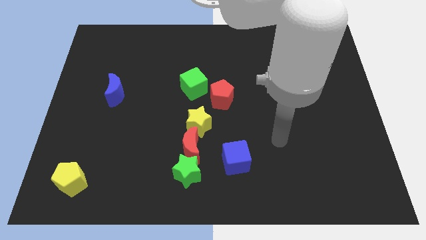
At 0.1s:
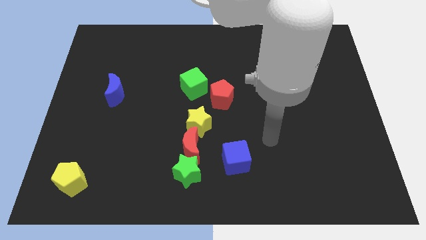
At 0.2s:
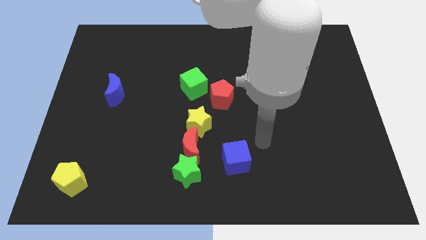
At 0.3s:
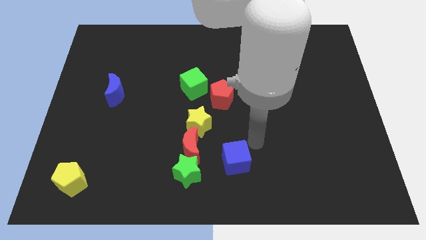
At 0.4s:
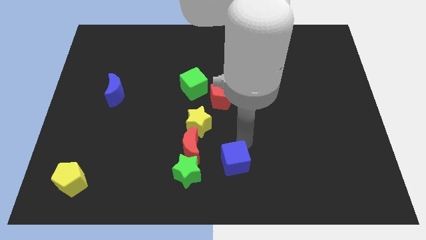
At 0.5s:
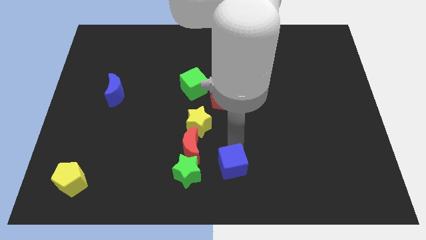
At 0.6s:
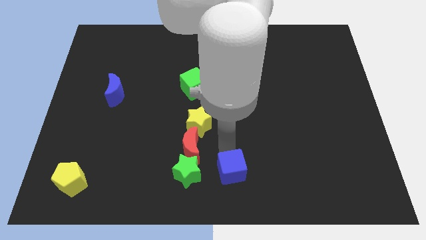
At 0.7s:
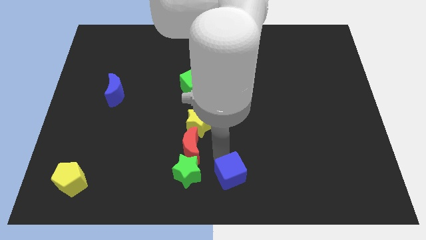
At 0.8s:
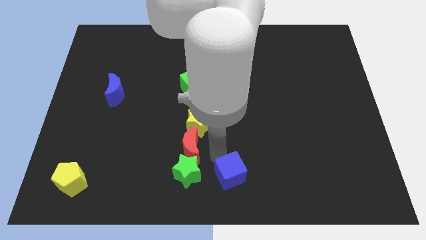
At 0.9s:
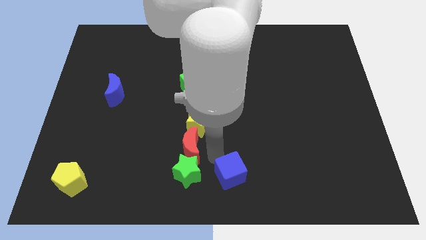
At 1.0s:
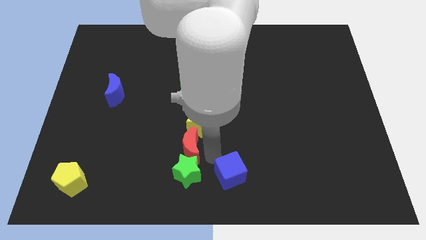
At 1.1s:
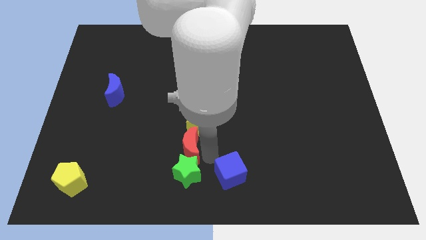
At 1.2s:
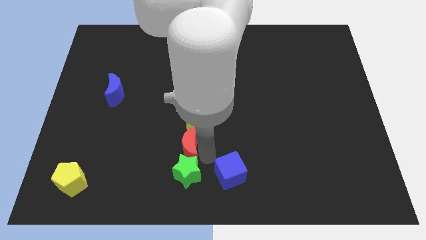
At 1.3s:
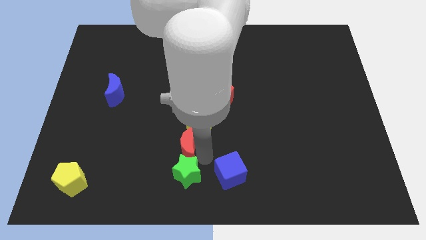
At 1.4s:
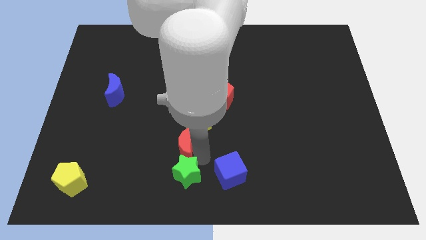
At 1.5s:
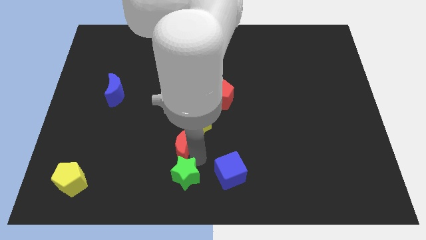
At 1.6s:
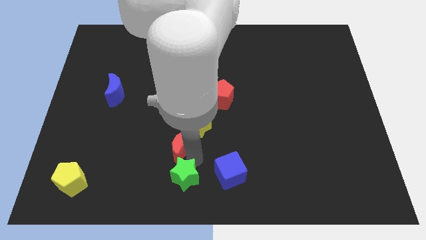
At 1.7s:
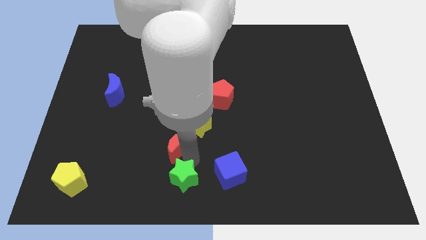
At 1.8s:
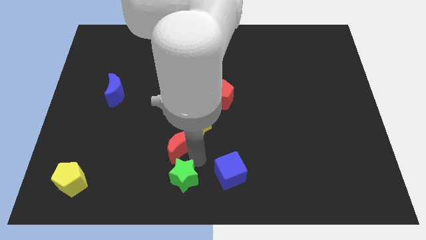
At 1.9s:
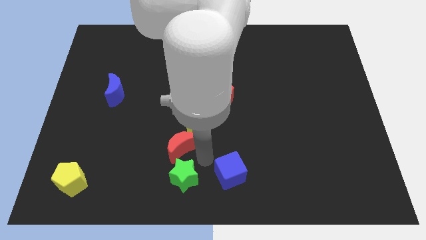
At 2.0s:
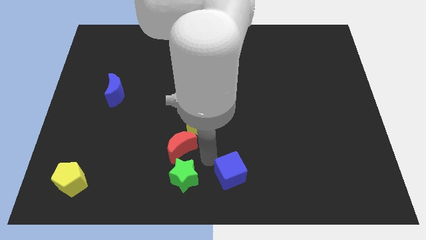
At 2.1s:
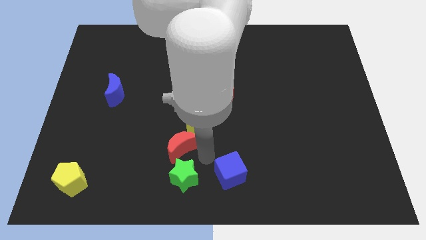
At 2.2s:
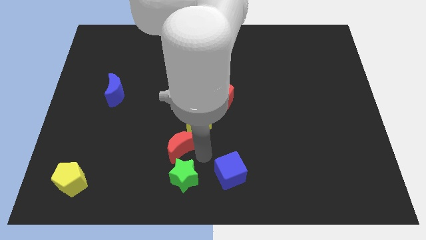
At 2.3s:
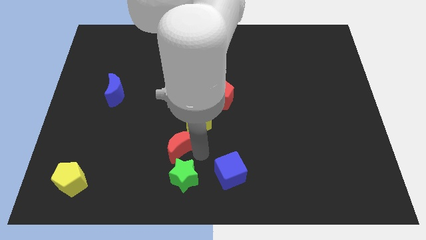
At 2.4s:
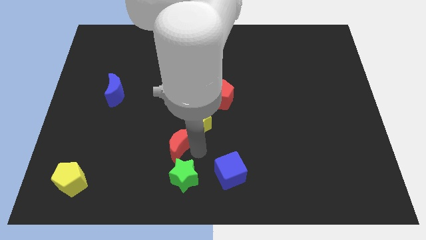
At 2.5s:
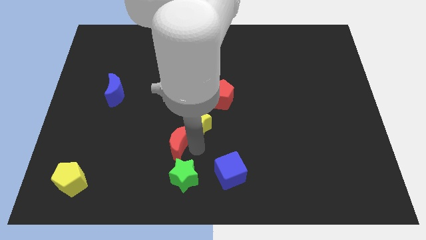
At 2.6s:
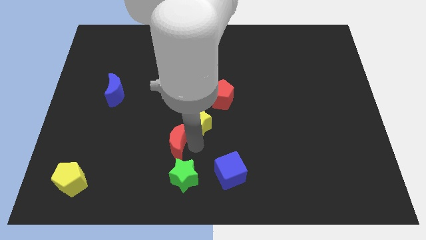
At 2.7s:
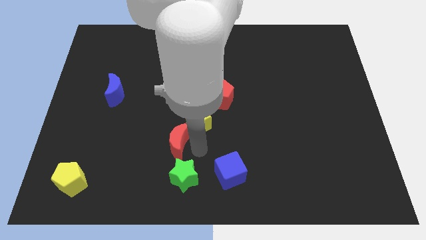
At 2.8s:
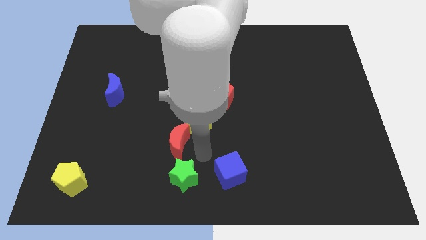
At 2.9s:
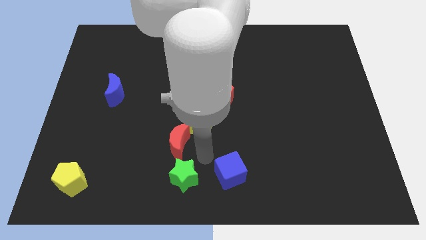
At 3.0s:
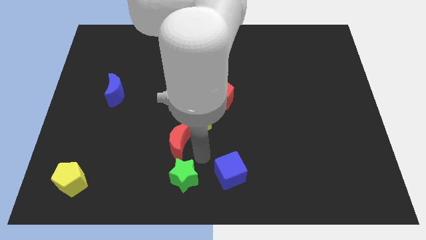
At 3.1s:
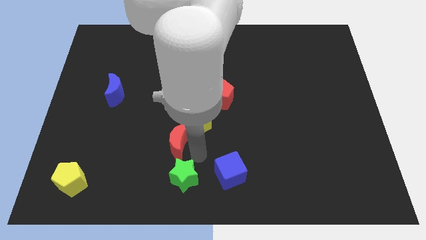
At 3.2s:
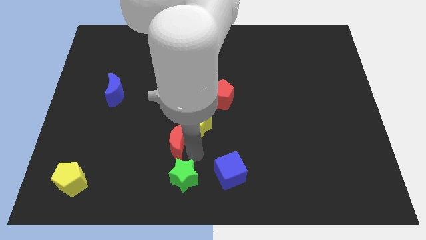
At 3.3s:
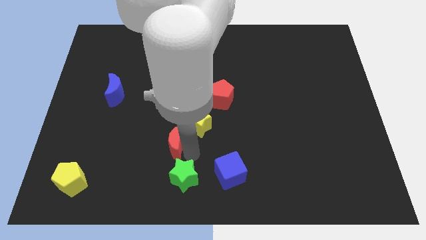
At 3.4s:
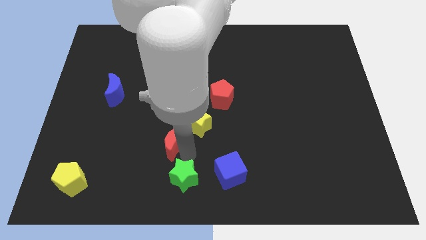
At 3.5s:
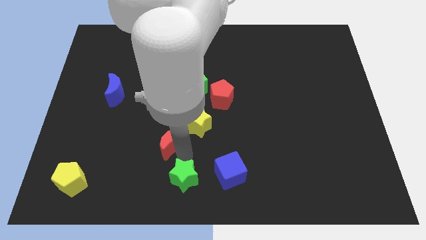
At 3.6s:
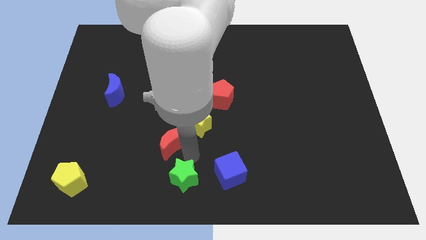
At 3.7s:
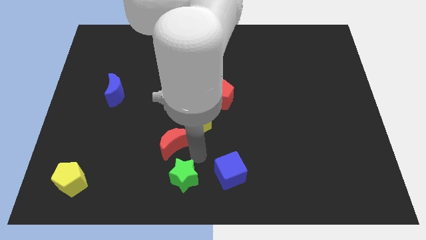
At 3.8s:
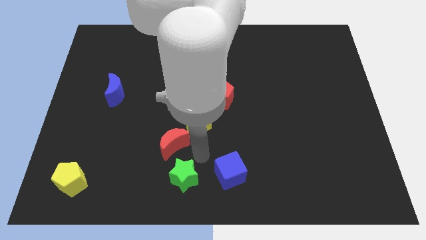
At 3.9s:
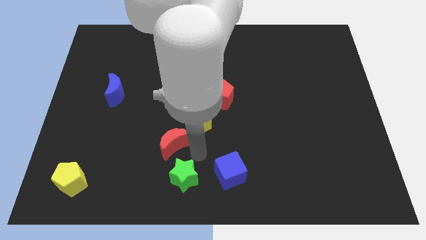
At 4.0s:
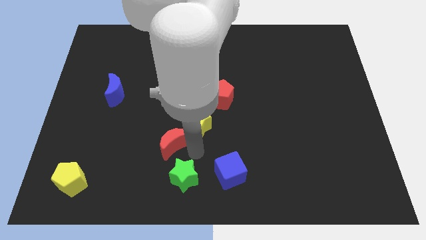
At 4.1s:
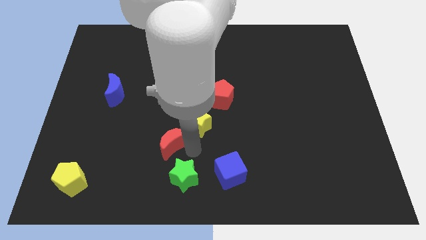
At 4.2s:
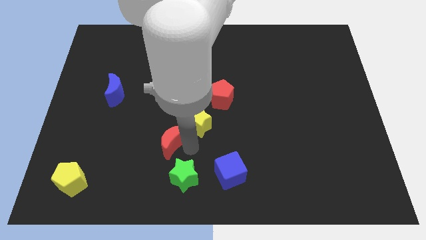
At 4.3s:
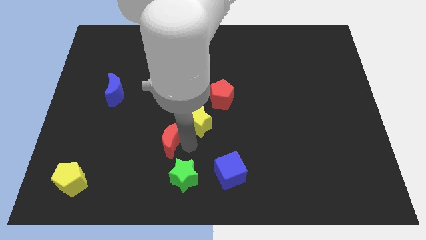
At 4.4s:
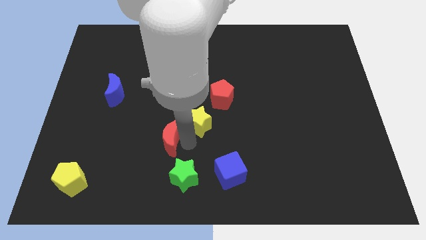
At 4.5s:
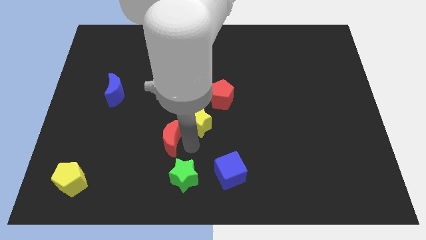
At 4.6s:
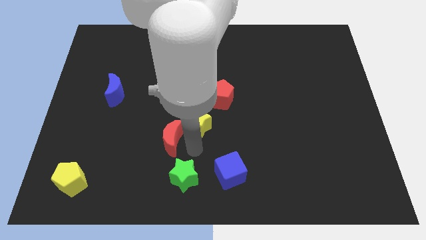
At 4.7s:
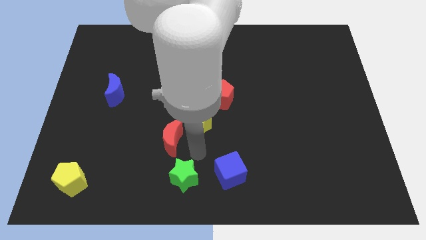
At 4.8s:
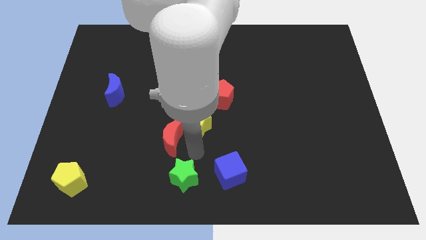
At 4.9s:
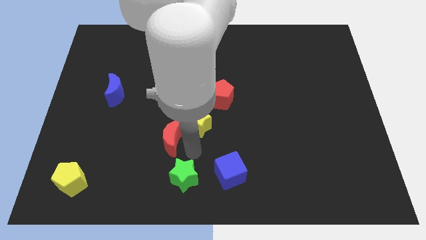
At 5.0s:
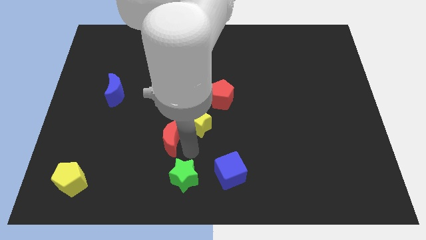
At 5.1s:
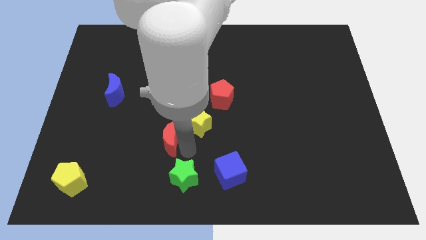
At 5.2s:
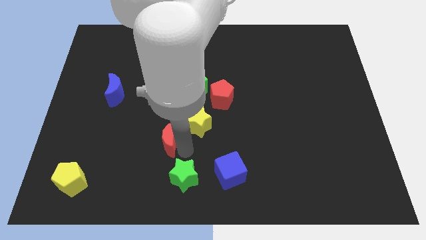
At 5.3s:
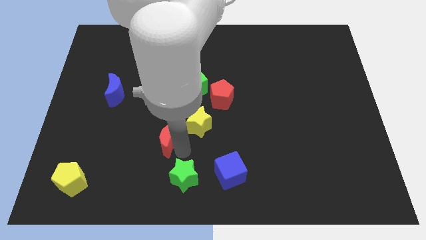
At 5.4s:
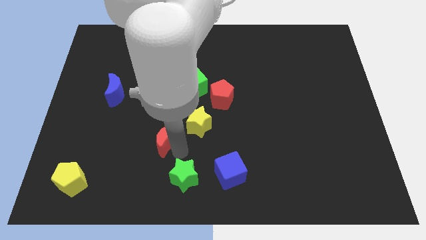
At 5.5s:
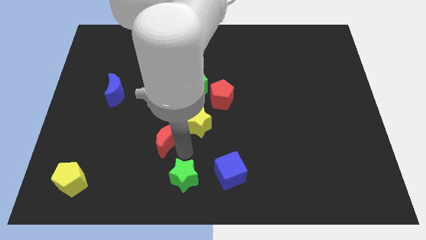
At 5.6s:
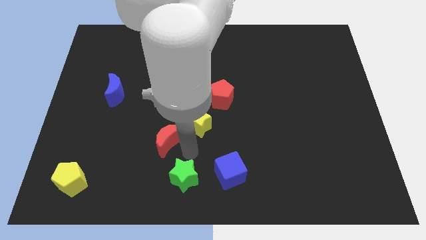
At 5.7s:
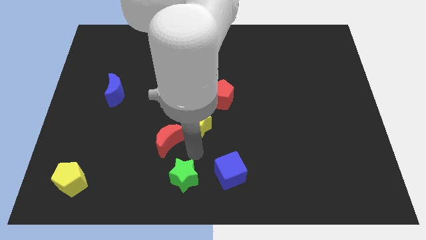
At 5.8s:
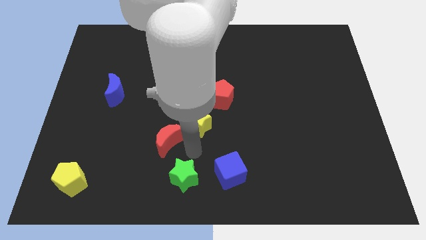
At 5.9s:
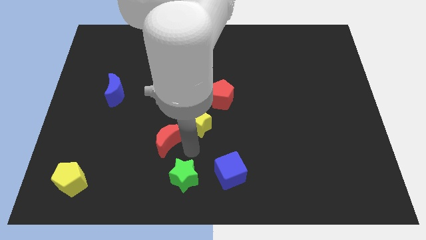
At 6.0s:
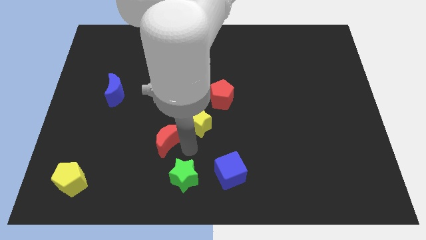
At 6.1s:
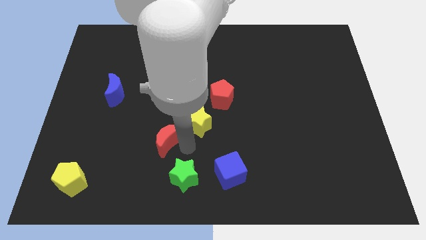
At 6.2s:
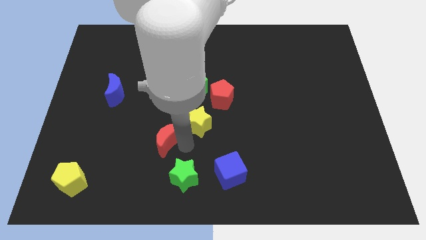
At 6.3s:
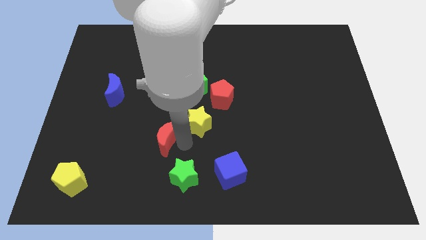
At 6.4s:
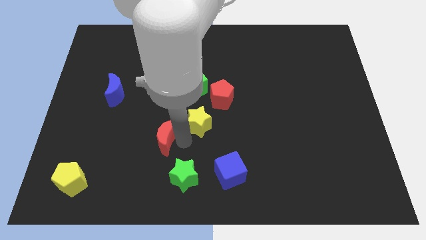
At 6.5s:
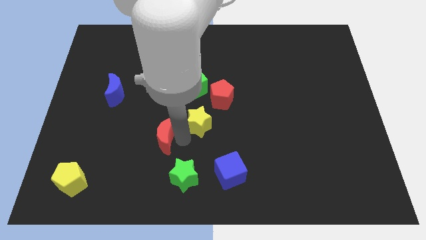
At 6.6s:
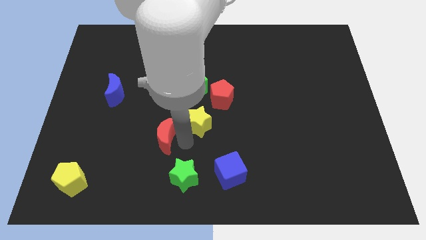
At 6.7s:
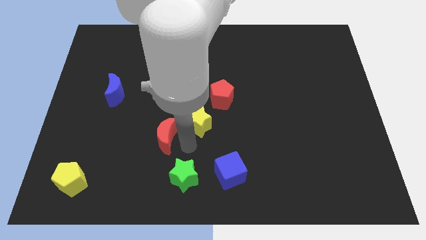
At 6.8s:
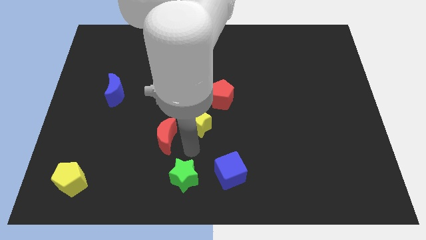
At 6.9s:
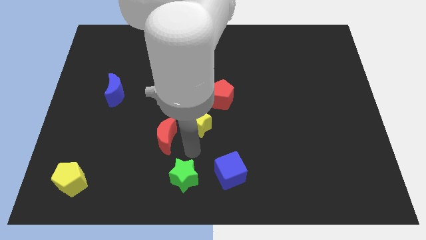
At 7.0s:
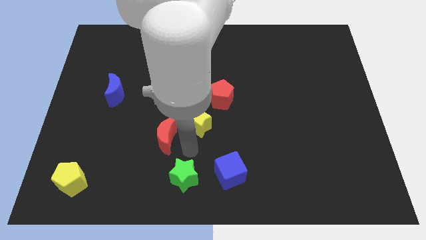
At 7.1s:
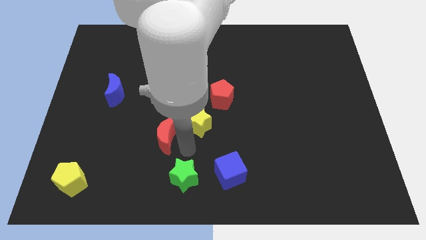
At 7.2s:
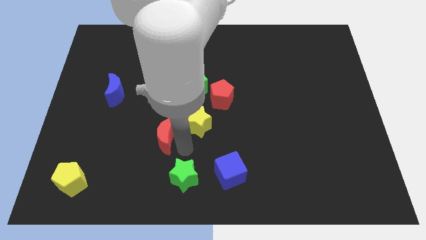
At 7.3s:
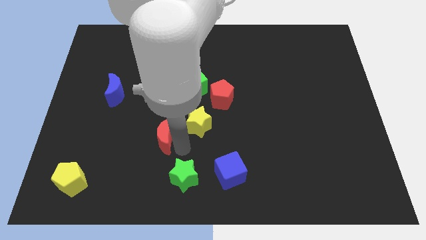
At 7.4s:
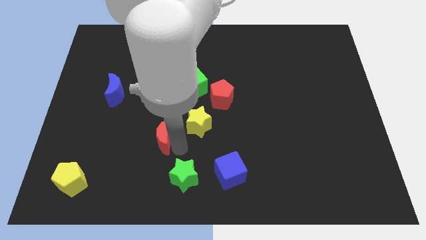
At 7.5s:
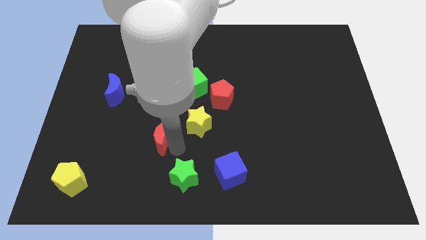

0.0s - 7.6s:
pull the red moon apart from the green star, yellow star, and blue cube

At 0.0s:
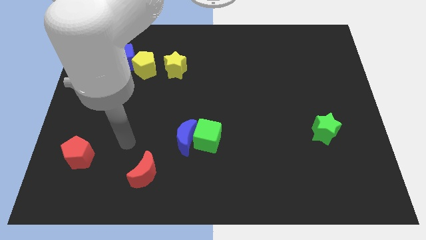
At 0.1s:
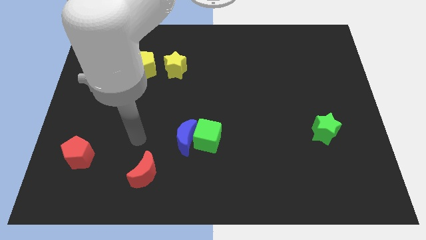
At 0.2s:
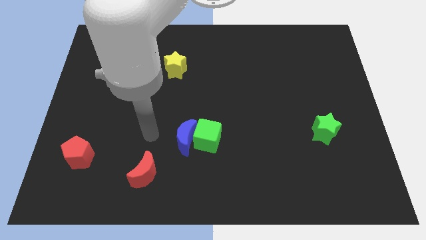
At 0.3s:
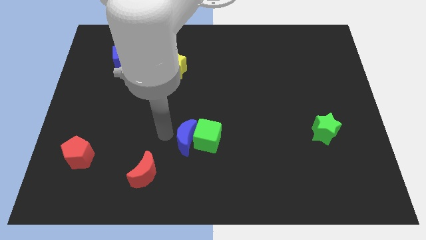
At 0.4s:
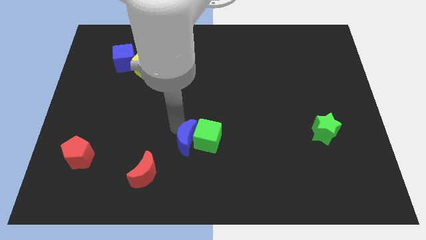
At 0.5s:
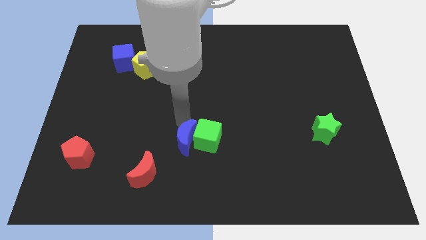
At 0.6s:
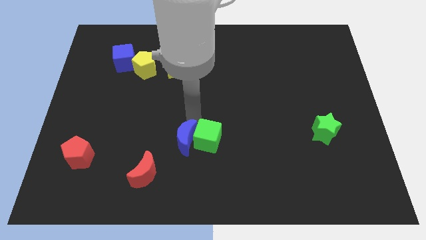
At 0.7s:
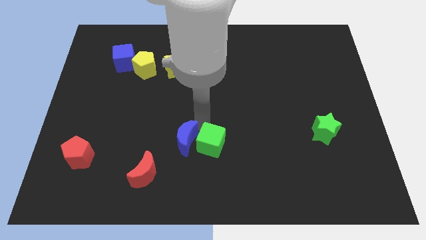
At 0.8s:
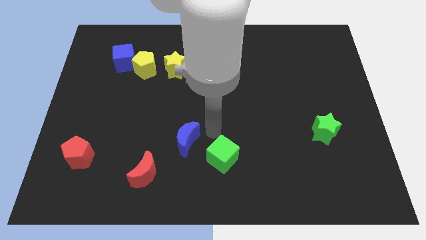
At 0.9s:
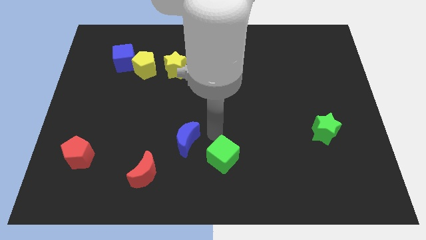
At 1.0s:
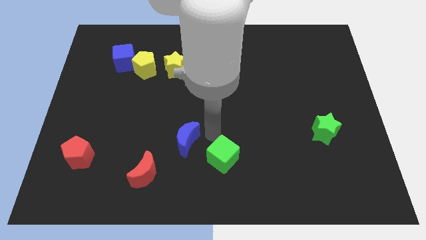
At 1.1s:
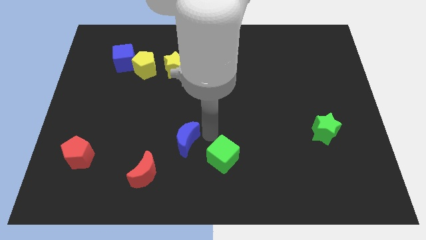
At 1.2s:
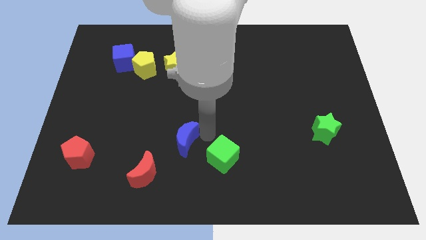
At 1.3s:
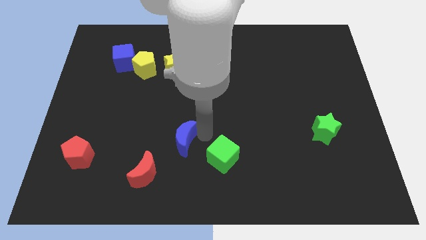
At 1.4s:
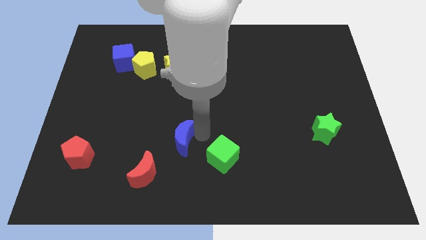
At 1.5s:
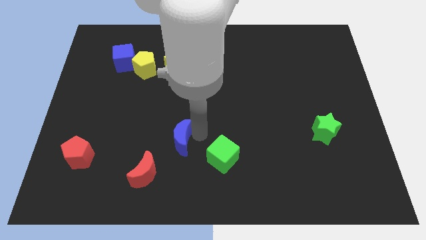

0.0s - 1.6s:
move the blue moon away from the green cube

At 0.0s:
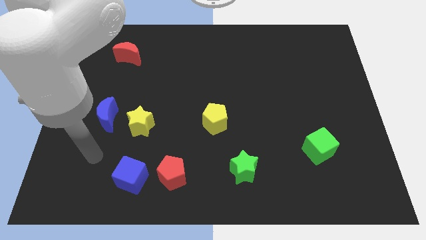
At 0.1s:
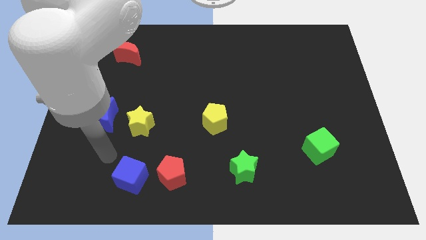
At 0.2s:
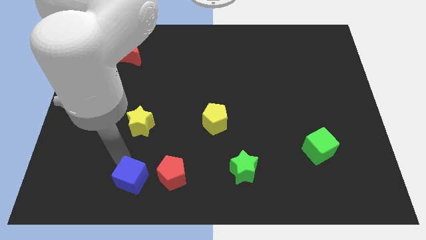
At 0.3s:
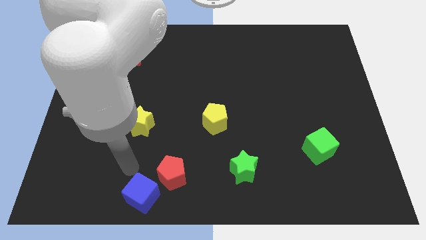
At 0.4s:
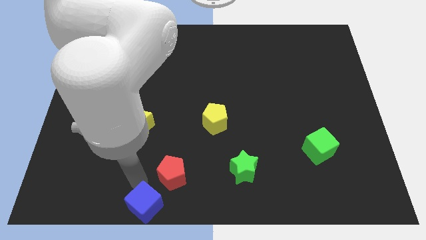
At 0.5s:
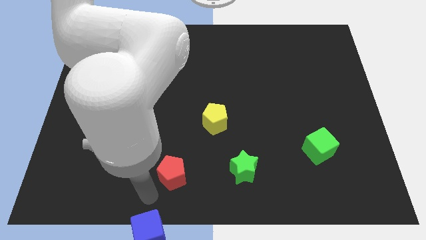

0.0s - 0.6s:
pull the red pentagon apart from the blue cube
